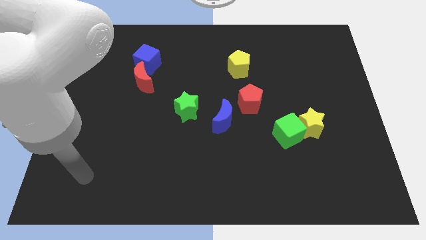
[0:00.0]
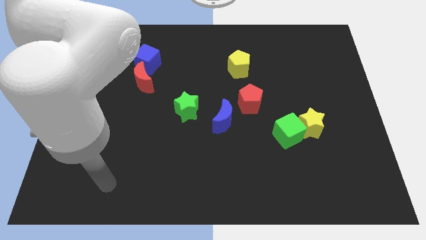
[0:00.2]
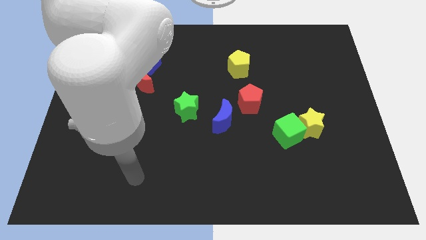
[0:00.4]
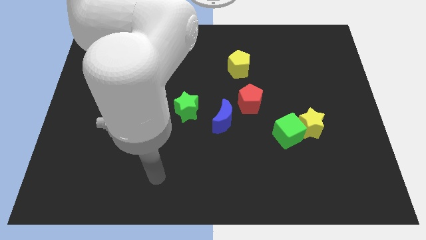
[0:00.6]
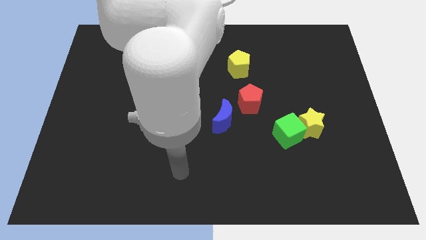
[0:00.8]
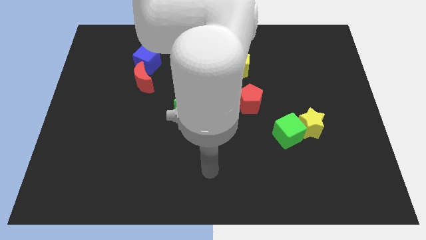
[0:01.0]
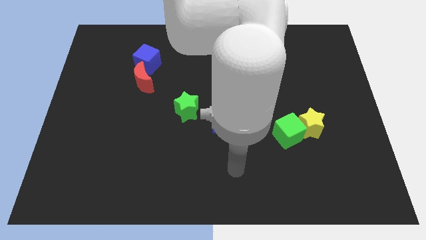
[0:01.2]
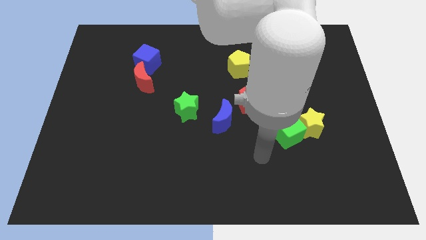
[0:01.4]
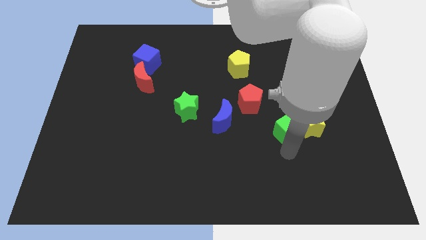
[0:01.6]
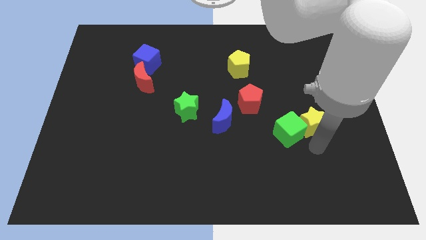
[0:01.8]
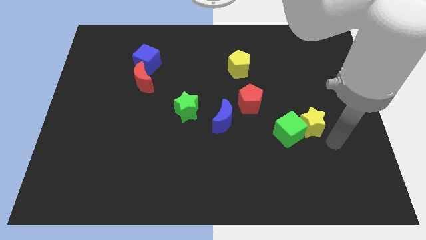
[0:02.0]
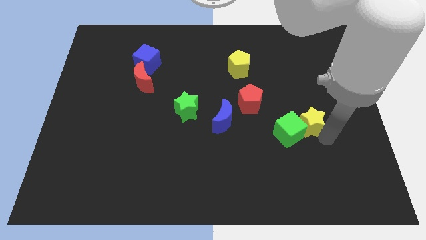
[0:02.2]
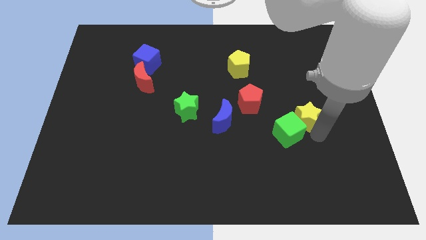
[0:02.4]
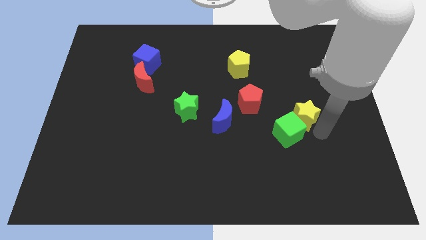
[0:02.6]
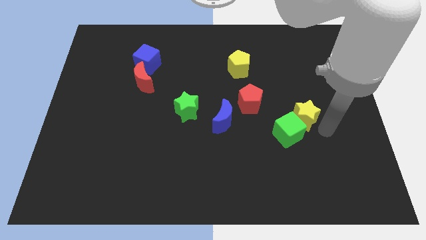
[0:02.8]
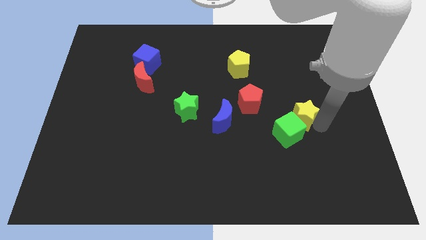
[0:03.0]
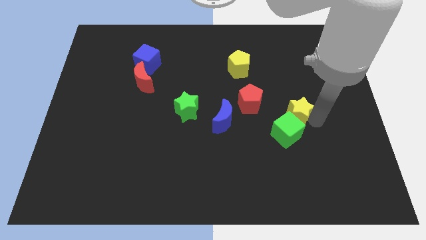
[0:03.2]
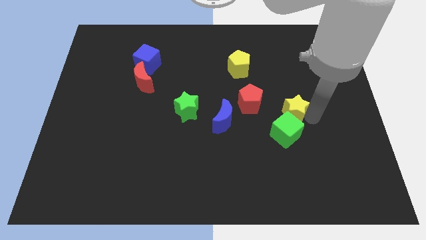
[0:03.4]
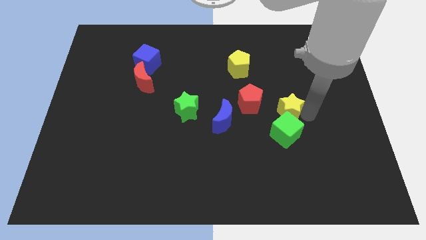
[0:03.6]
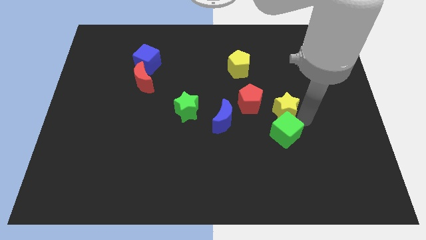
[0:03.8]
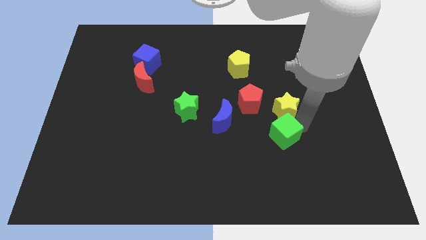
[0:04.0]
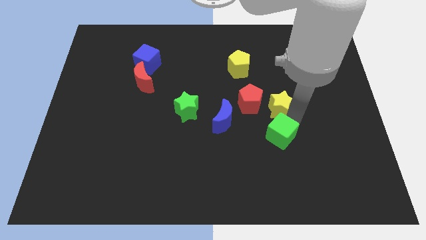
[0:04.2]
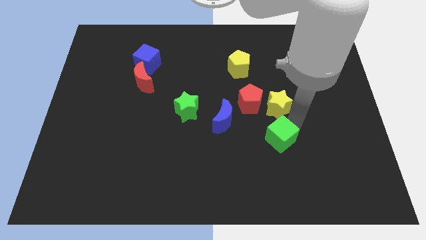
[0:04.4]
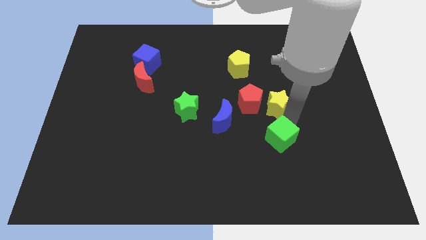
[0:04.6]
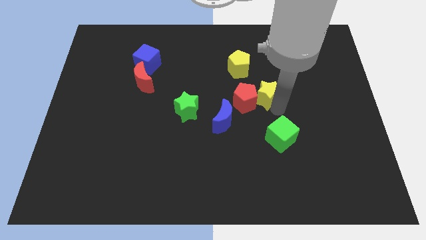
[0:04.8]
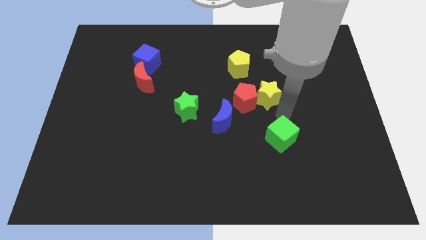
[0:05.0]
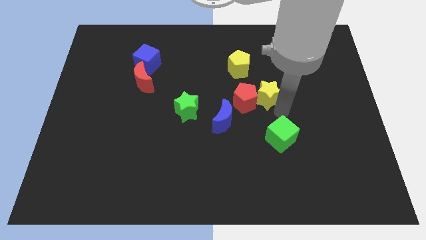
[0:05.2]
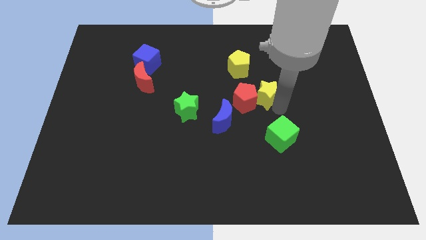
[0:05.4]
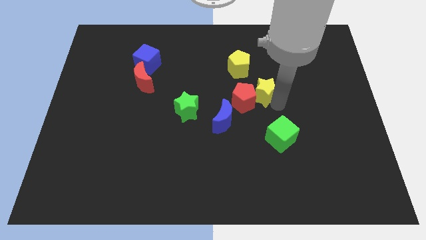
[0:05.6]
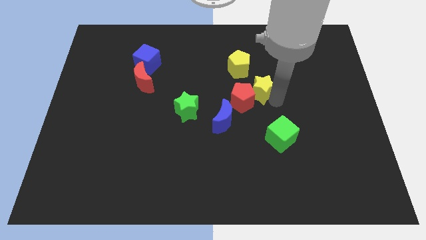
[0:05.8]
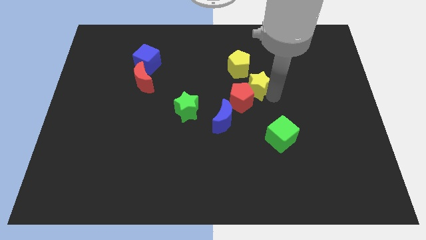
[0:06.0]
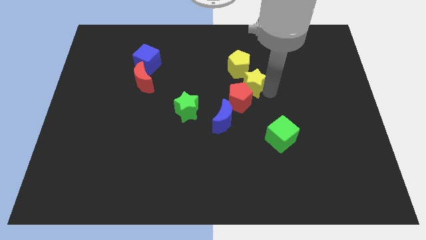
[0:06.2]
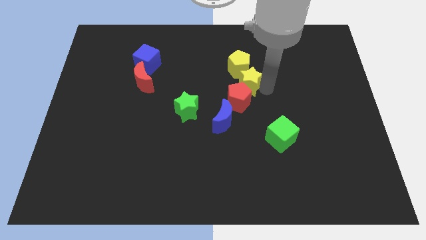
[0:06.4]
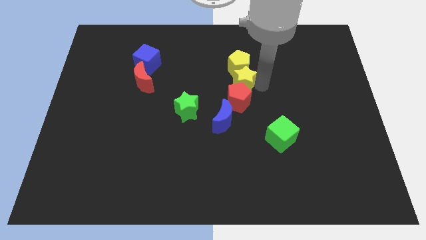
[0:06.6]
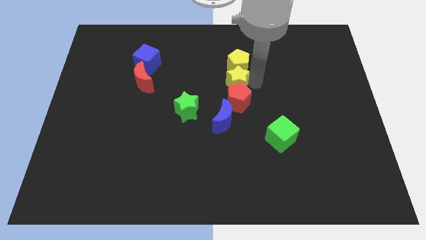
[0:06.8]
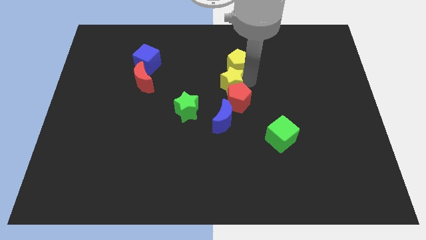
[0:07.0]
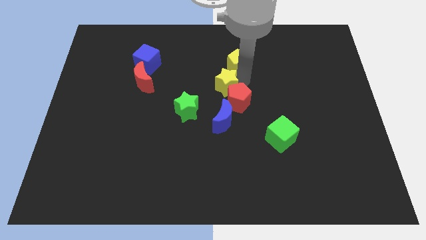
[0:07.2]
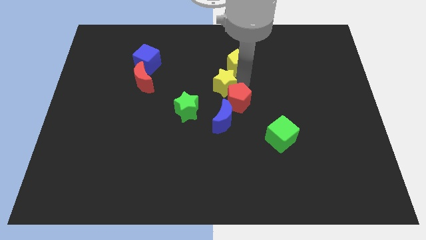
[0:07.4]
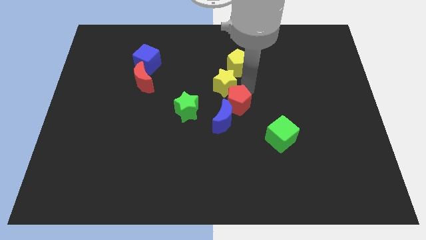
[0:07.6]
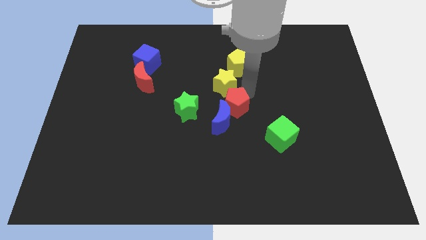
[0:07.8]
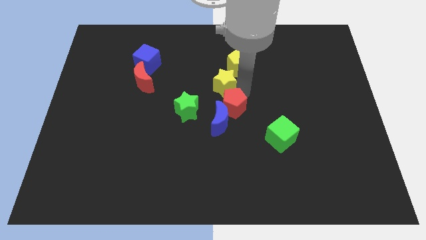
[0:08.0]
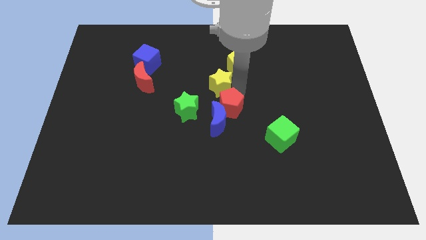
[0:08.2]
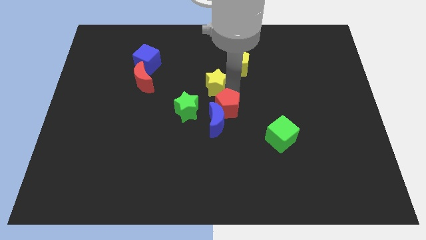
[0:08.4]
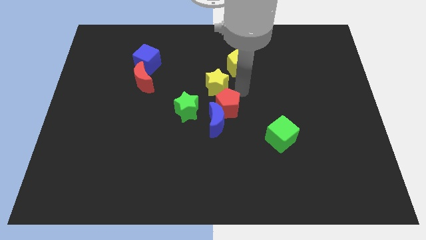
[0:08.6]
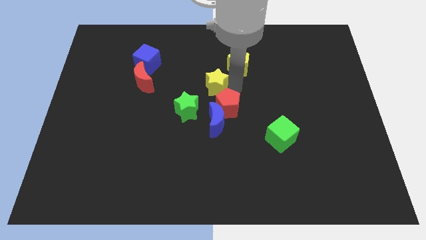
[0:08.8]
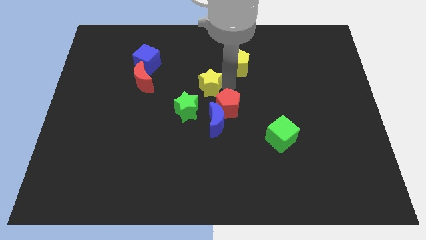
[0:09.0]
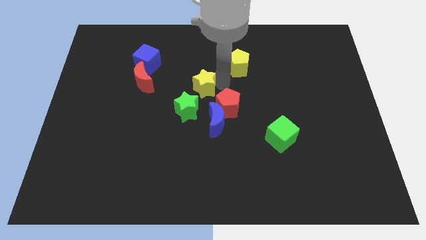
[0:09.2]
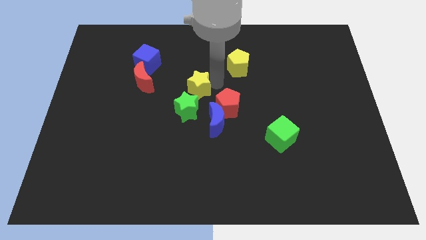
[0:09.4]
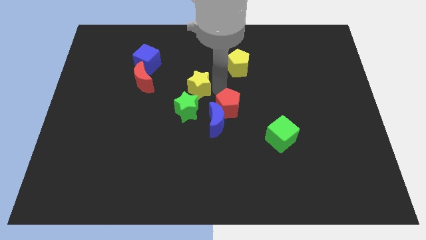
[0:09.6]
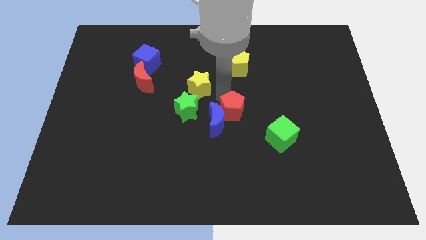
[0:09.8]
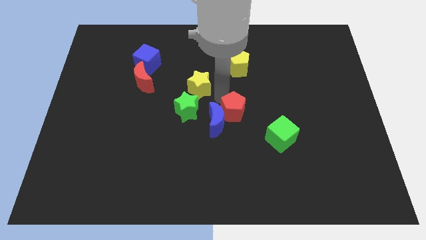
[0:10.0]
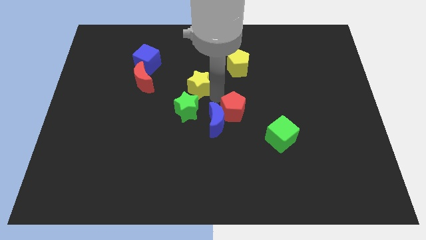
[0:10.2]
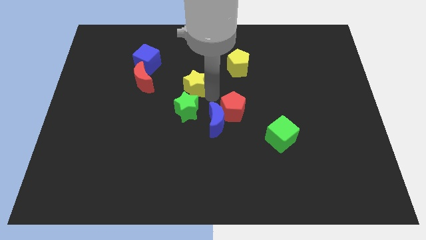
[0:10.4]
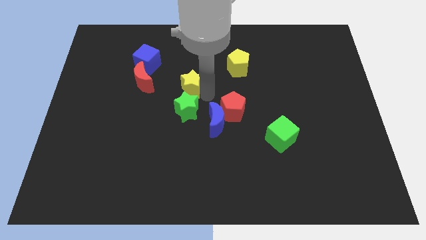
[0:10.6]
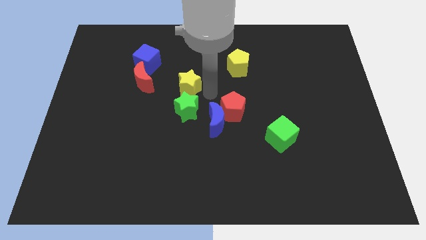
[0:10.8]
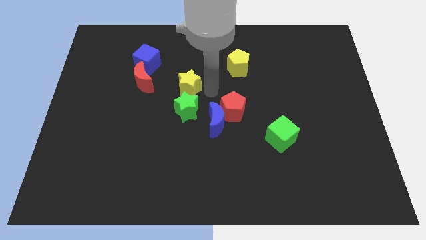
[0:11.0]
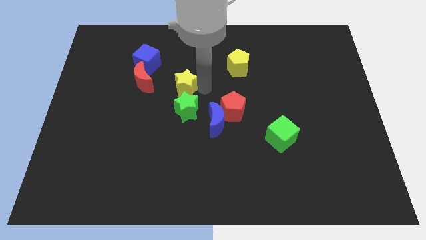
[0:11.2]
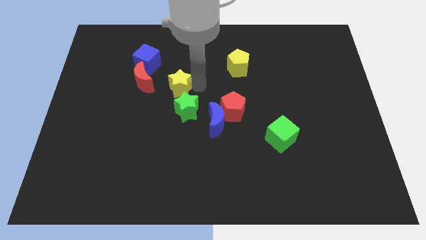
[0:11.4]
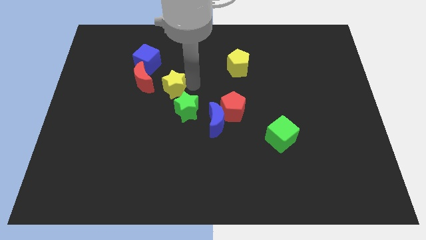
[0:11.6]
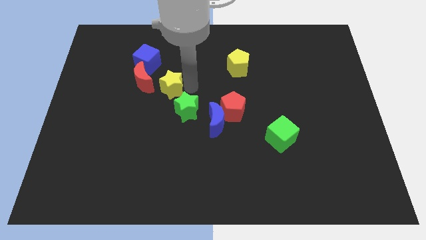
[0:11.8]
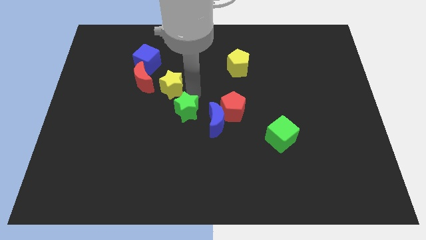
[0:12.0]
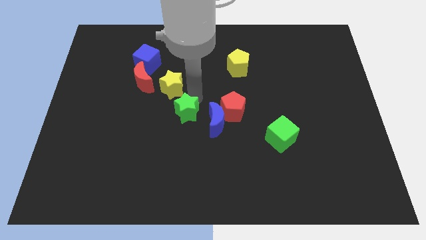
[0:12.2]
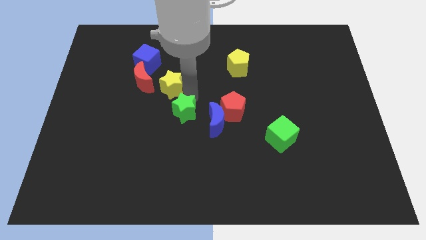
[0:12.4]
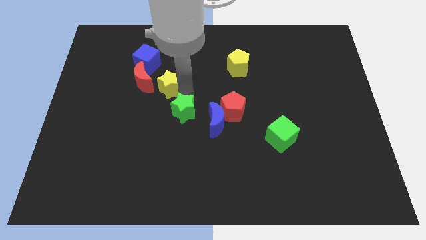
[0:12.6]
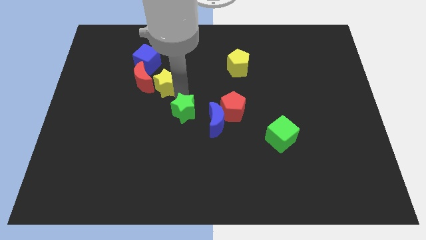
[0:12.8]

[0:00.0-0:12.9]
put the yellow star towards the red moon
